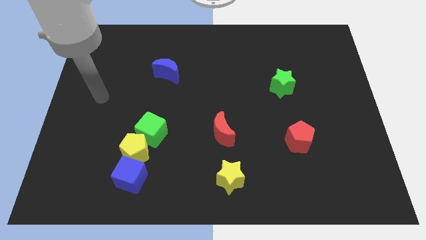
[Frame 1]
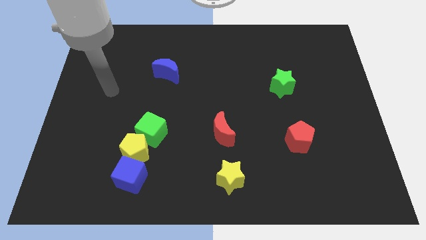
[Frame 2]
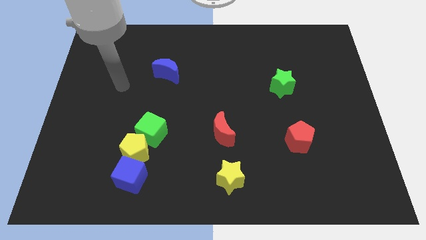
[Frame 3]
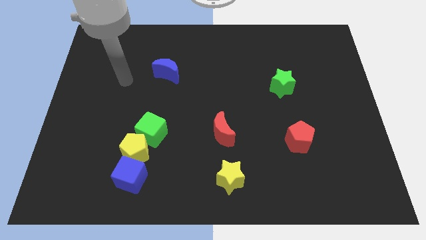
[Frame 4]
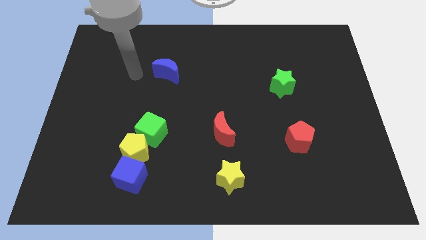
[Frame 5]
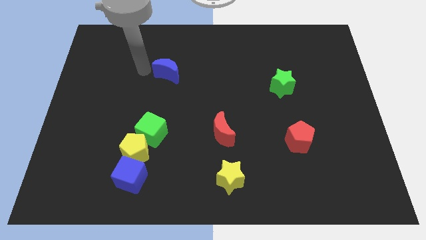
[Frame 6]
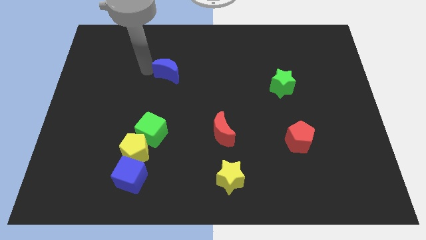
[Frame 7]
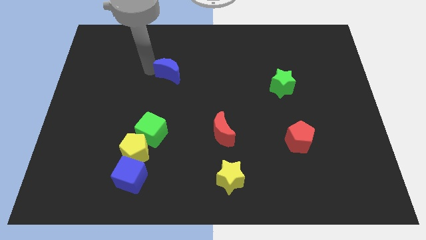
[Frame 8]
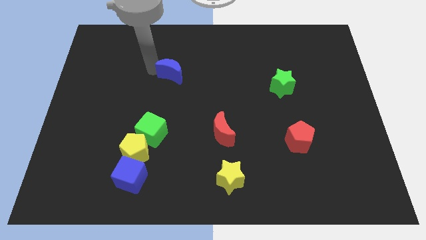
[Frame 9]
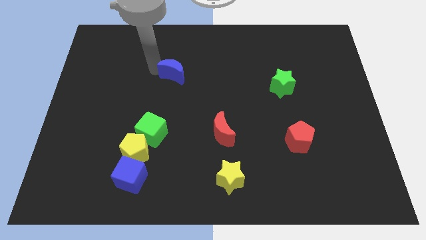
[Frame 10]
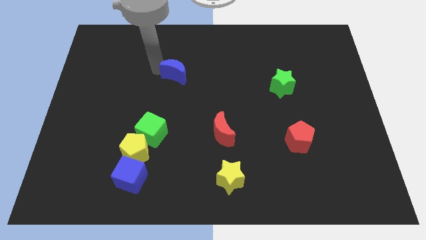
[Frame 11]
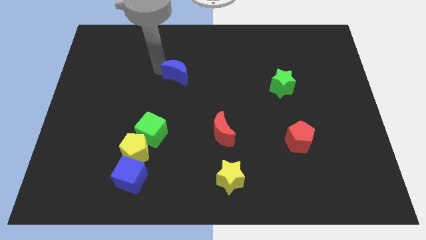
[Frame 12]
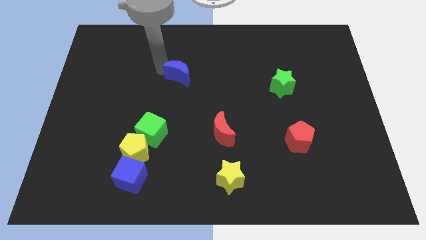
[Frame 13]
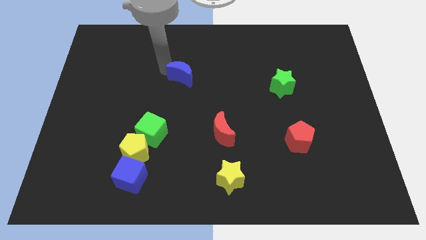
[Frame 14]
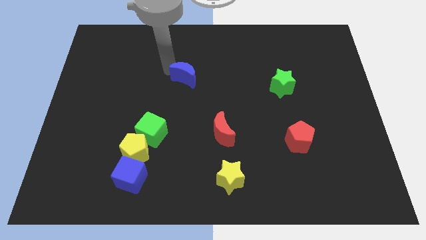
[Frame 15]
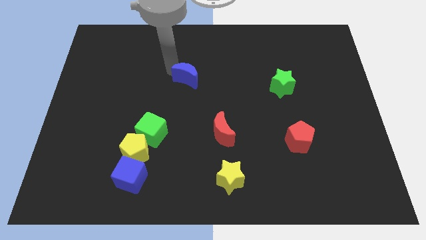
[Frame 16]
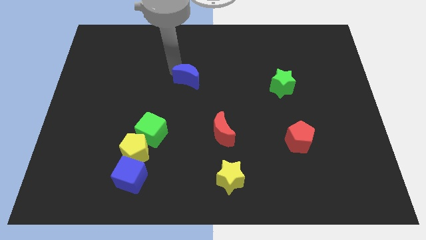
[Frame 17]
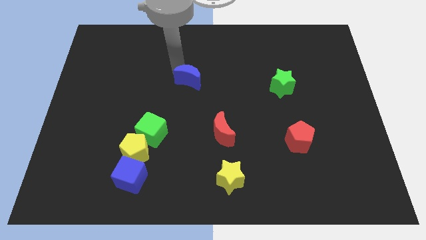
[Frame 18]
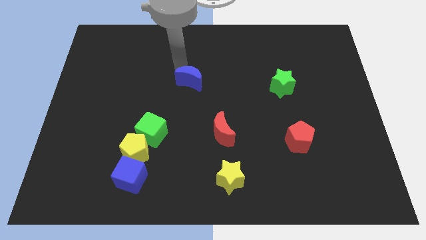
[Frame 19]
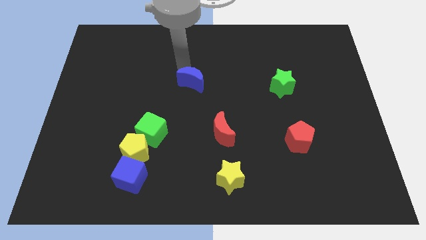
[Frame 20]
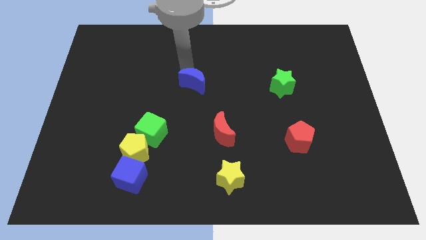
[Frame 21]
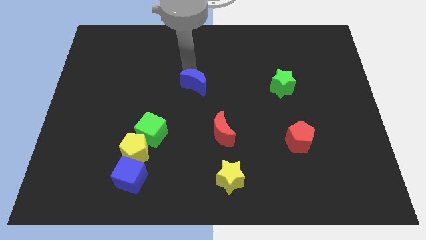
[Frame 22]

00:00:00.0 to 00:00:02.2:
slightly slide the blue moon right

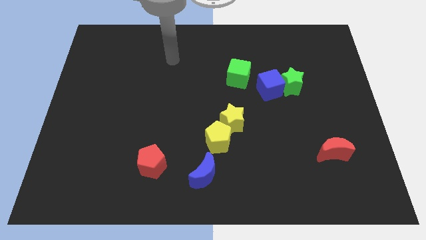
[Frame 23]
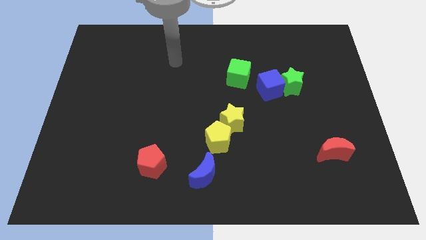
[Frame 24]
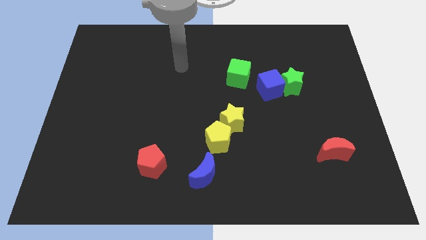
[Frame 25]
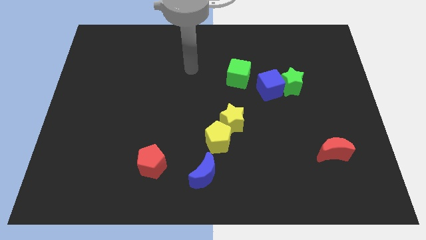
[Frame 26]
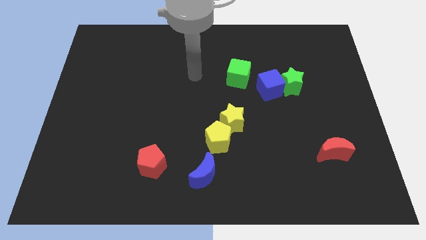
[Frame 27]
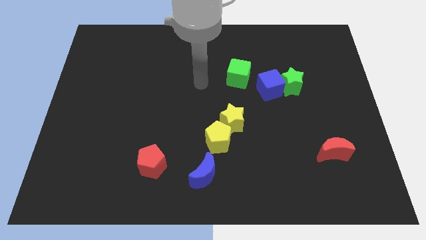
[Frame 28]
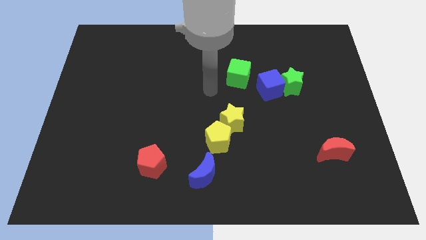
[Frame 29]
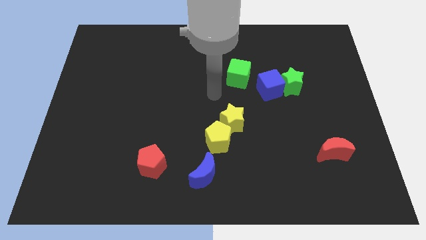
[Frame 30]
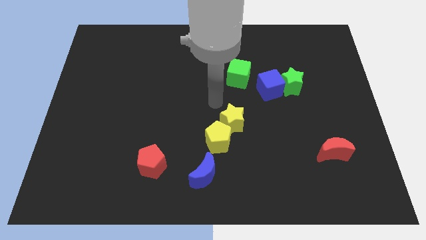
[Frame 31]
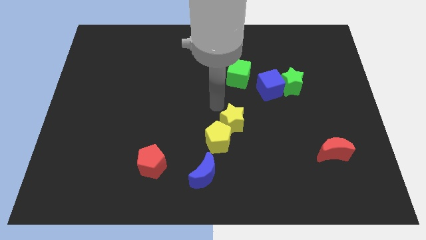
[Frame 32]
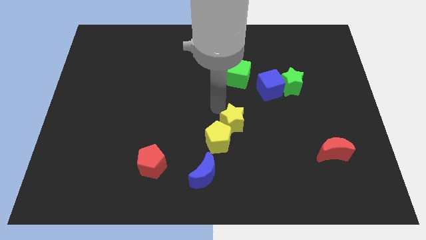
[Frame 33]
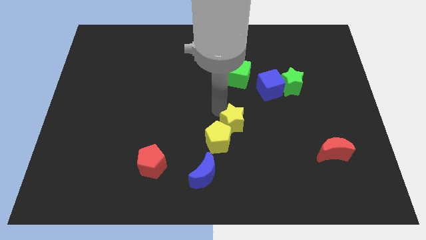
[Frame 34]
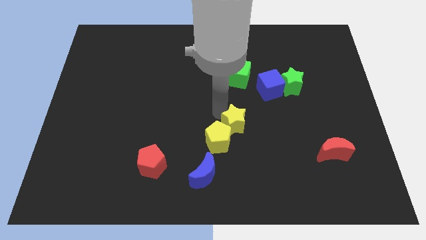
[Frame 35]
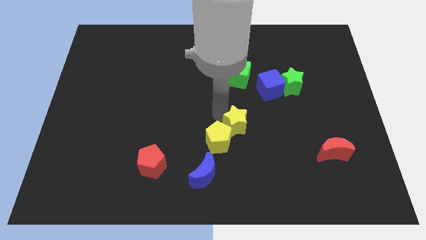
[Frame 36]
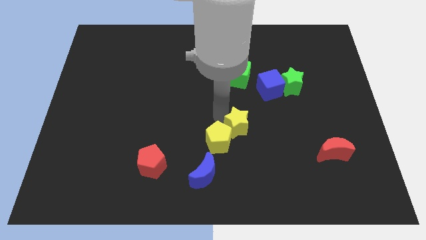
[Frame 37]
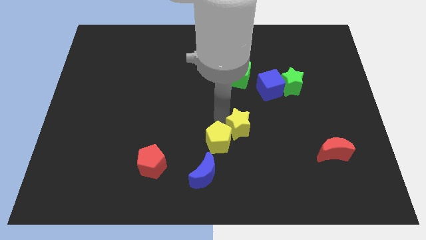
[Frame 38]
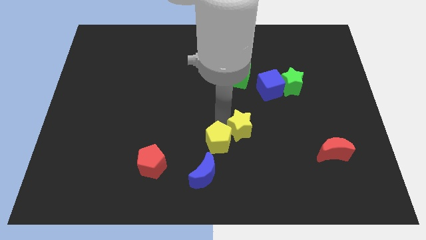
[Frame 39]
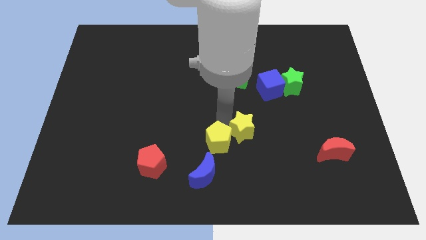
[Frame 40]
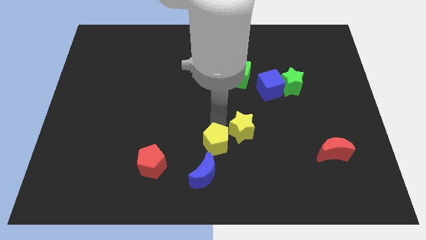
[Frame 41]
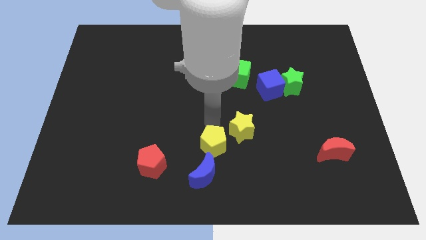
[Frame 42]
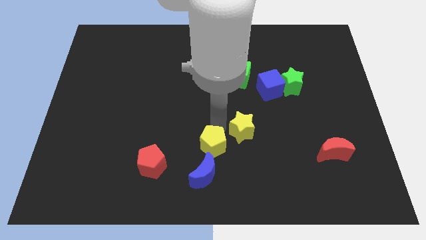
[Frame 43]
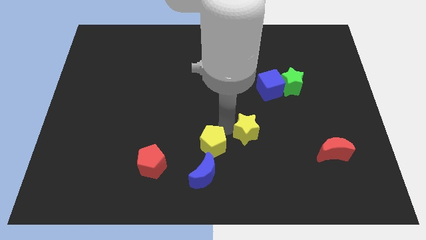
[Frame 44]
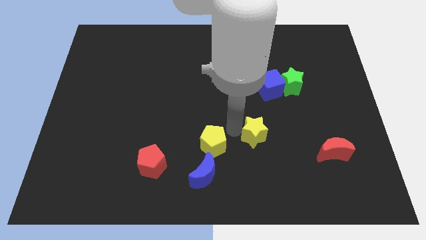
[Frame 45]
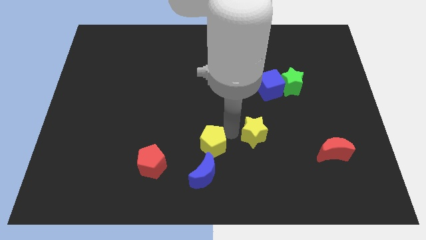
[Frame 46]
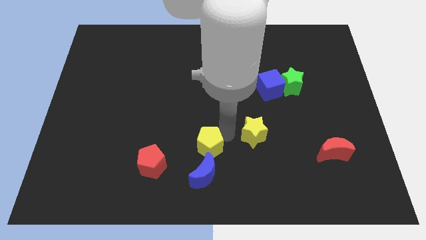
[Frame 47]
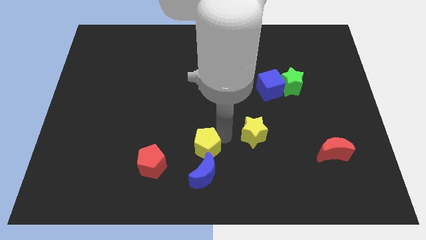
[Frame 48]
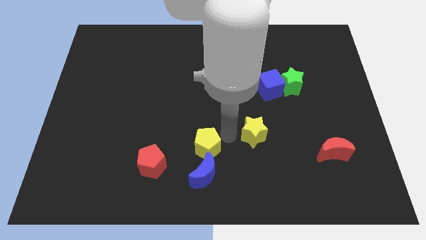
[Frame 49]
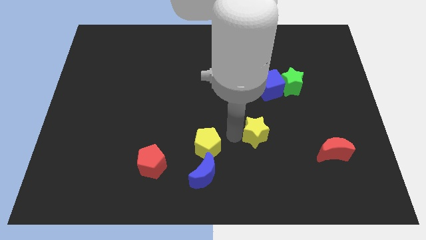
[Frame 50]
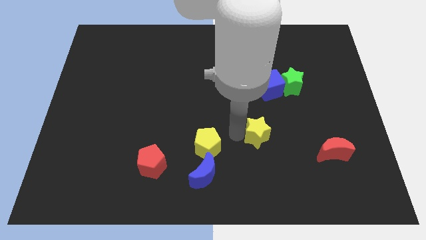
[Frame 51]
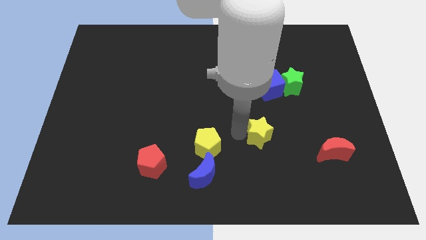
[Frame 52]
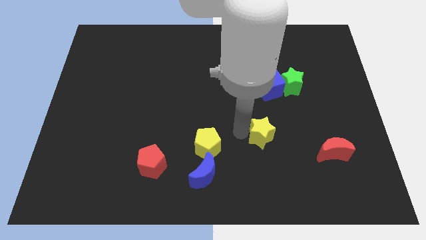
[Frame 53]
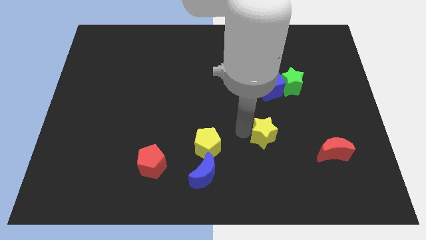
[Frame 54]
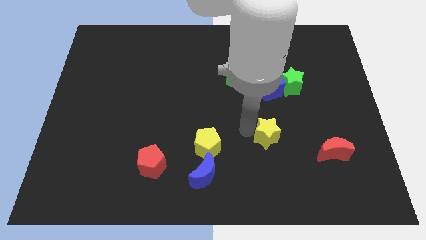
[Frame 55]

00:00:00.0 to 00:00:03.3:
slightly move the yellow star to the right

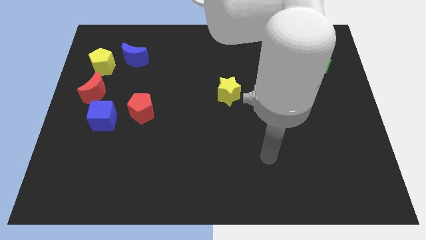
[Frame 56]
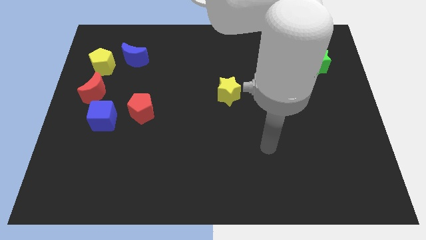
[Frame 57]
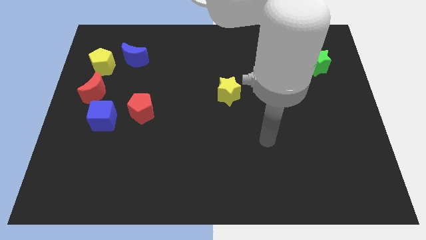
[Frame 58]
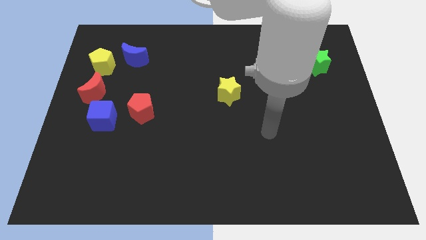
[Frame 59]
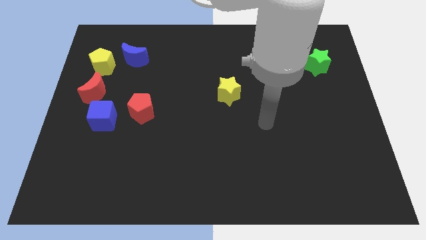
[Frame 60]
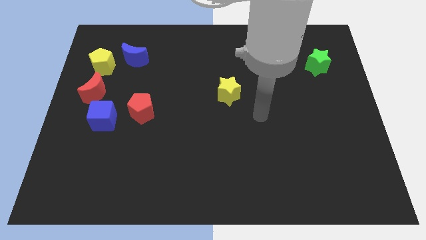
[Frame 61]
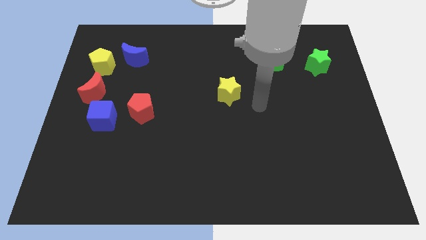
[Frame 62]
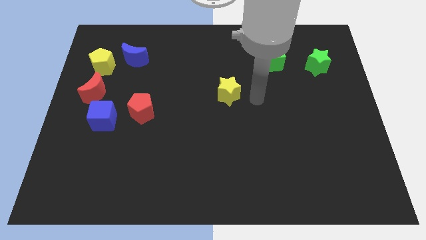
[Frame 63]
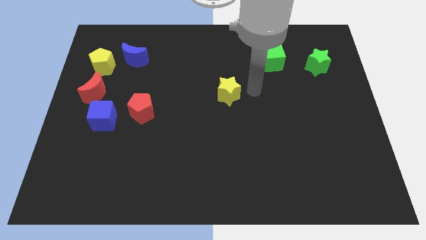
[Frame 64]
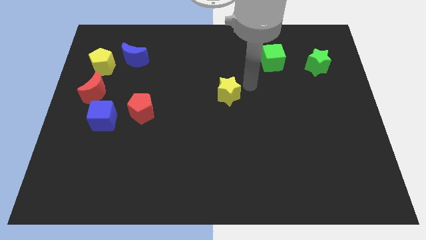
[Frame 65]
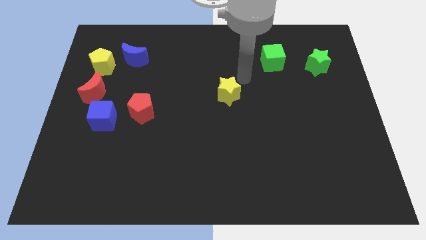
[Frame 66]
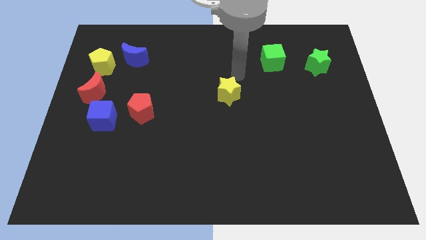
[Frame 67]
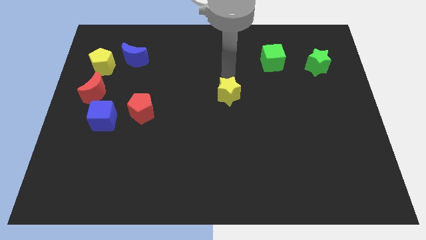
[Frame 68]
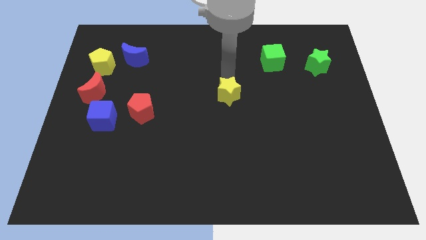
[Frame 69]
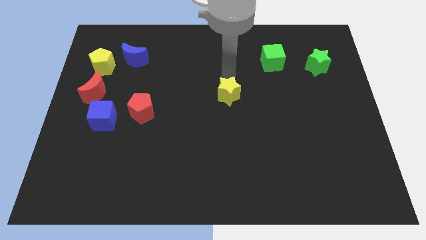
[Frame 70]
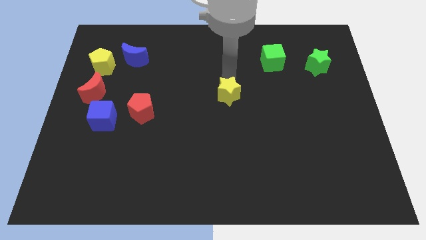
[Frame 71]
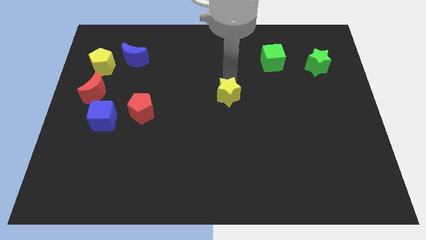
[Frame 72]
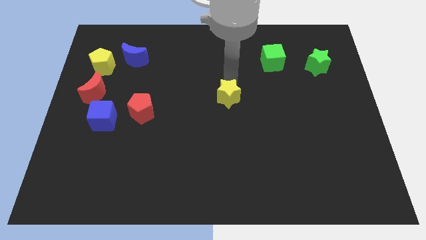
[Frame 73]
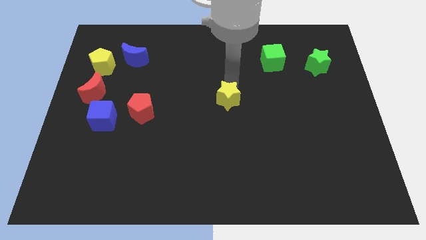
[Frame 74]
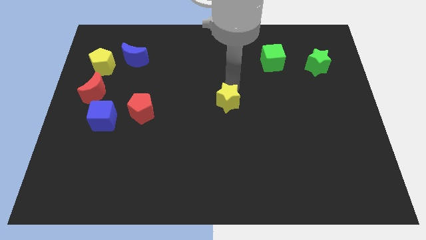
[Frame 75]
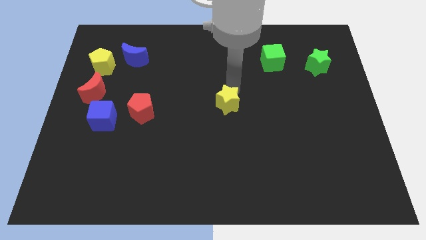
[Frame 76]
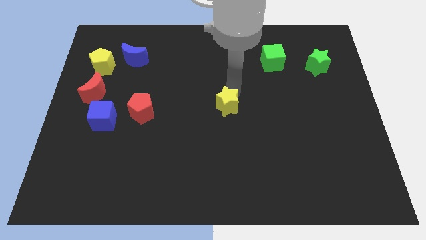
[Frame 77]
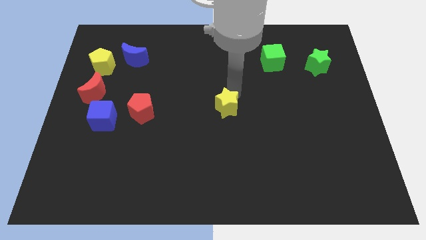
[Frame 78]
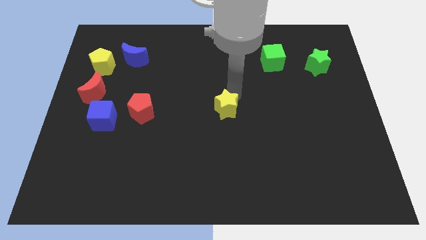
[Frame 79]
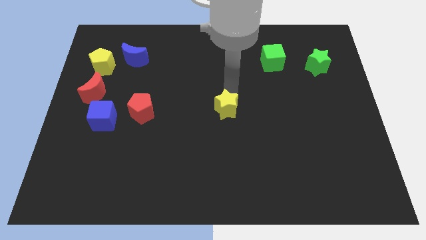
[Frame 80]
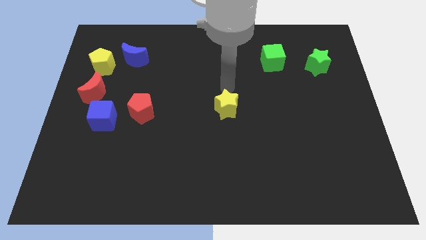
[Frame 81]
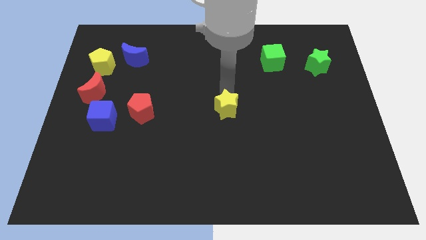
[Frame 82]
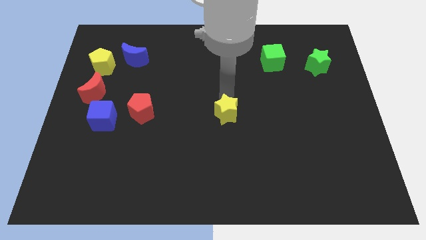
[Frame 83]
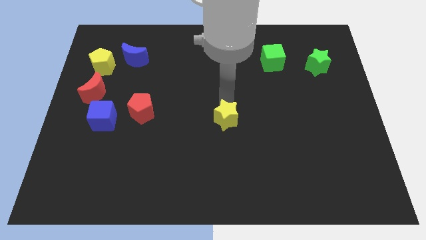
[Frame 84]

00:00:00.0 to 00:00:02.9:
slightly push the yellow star downwards
